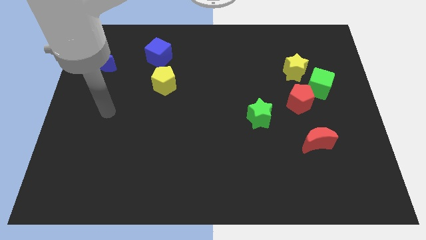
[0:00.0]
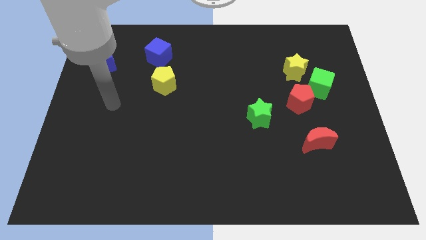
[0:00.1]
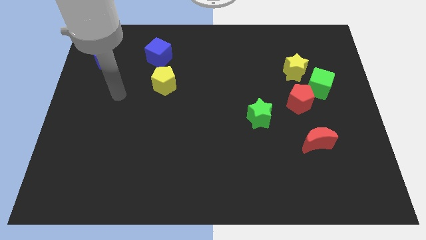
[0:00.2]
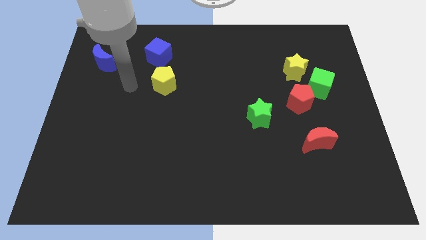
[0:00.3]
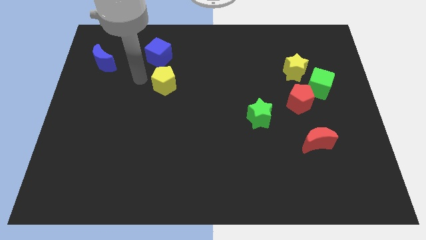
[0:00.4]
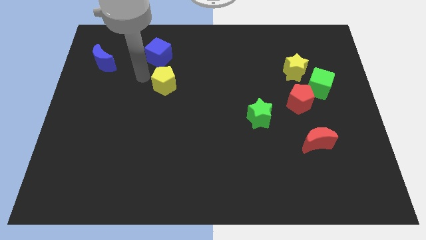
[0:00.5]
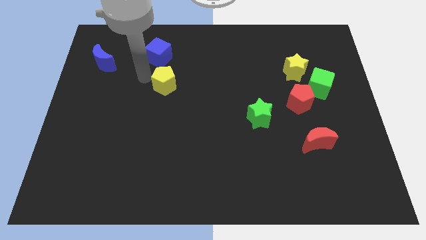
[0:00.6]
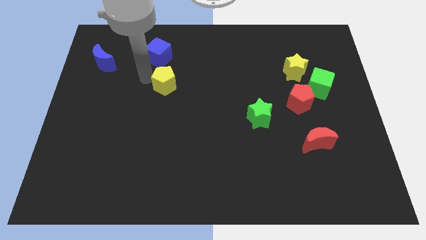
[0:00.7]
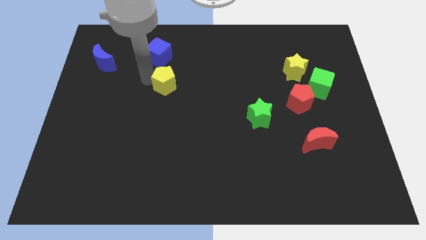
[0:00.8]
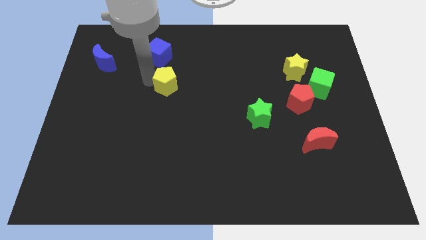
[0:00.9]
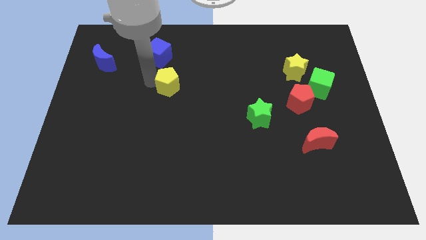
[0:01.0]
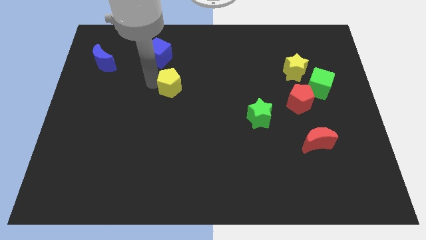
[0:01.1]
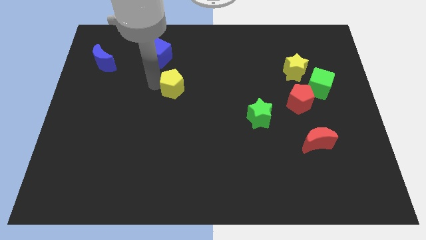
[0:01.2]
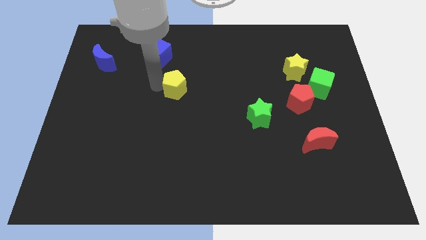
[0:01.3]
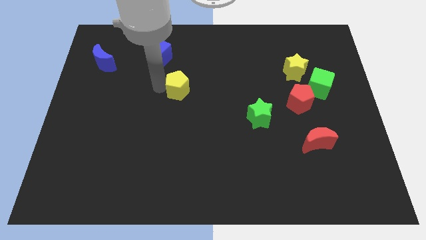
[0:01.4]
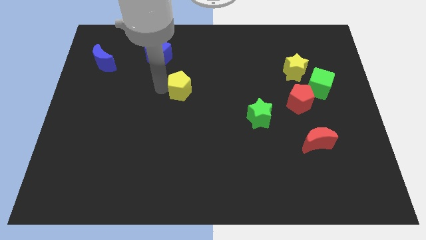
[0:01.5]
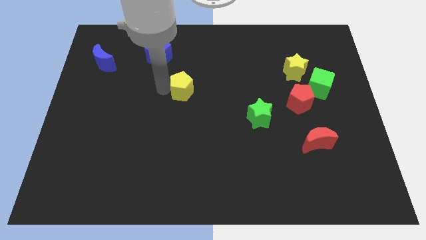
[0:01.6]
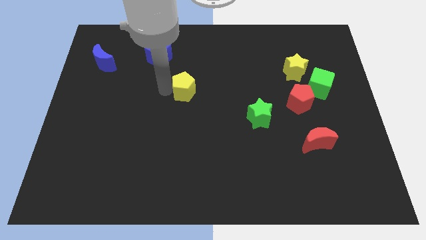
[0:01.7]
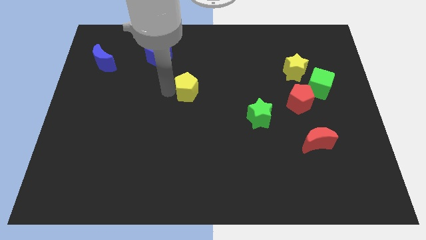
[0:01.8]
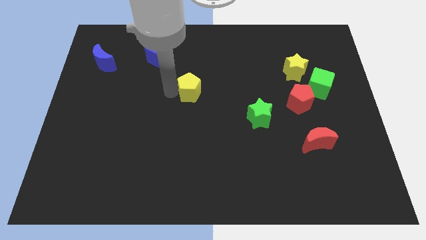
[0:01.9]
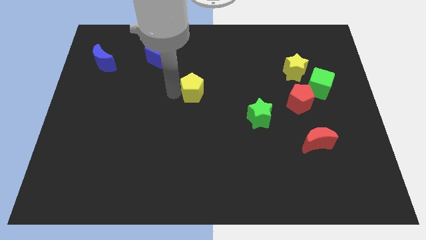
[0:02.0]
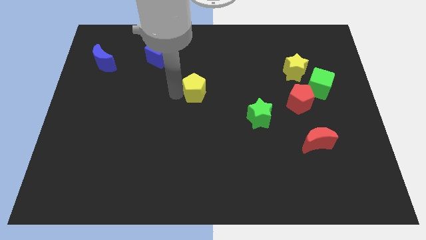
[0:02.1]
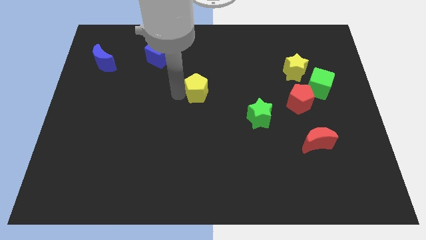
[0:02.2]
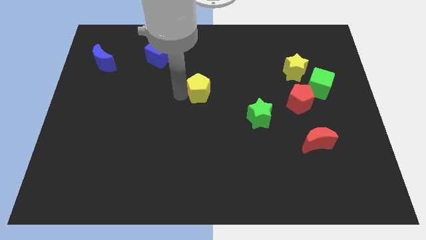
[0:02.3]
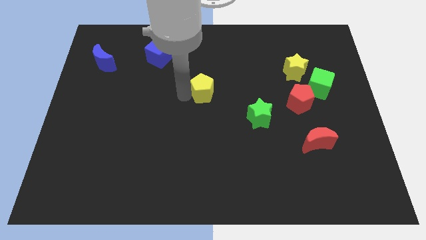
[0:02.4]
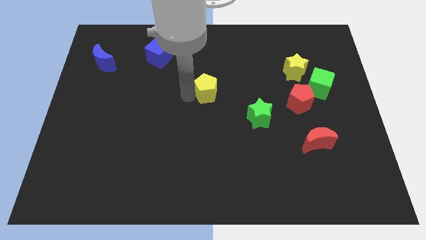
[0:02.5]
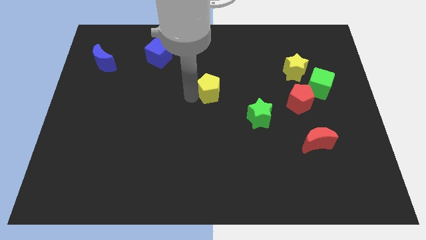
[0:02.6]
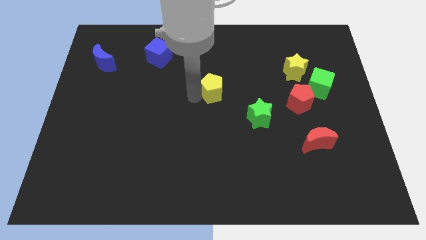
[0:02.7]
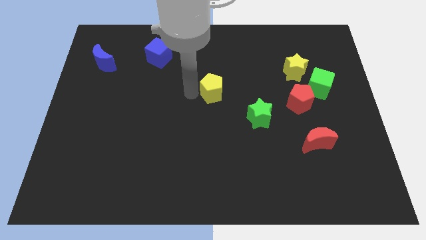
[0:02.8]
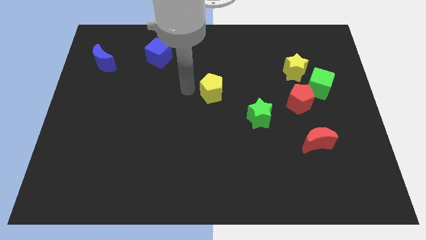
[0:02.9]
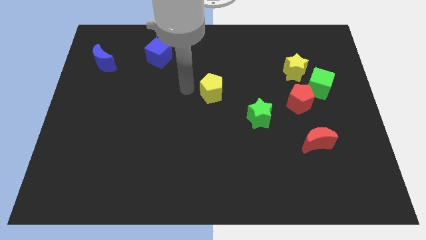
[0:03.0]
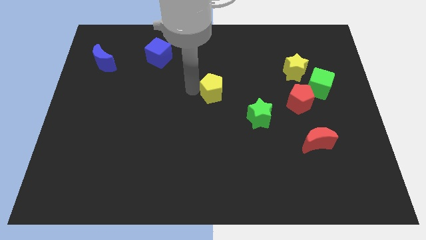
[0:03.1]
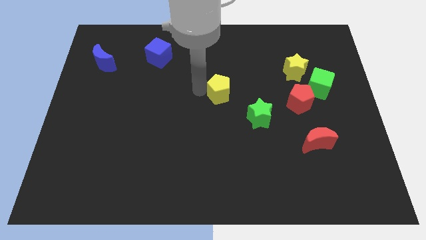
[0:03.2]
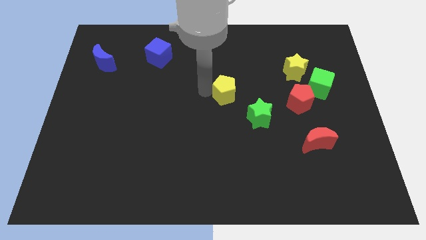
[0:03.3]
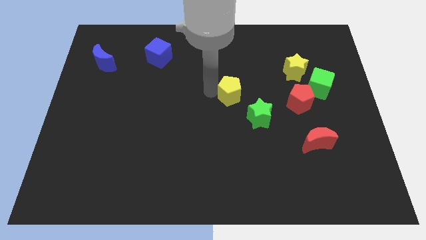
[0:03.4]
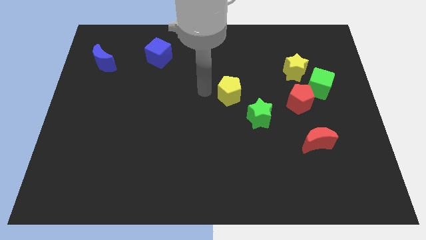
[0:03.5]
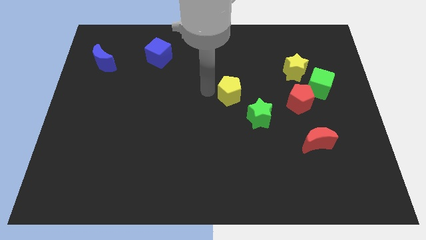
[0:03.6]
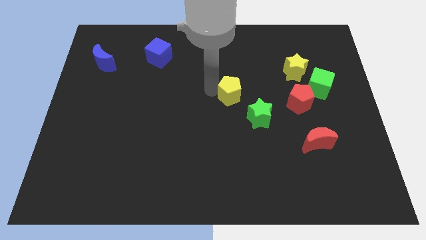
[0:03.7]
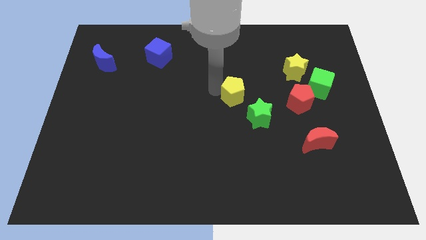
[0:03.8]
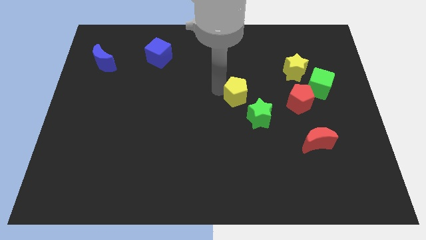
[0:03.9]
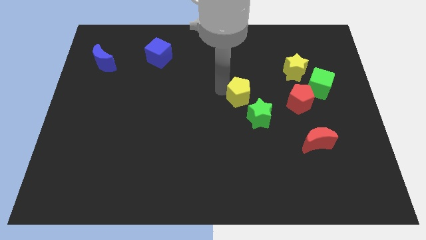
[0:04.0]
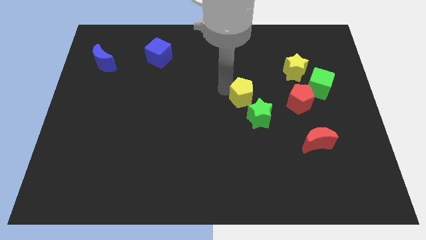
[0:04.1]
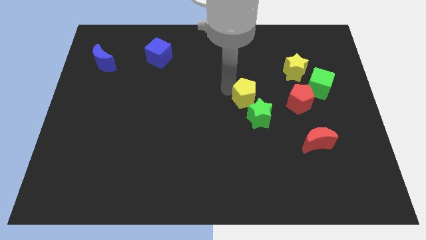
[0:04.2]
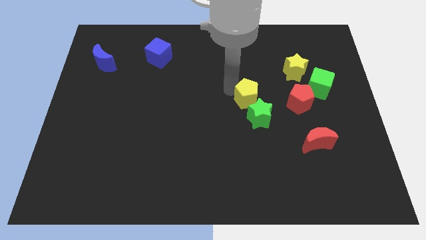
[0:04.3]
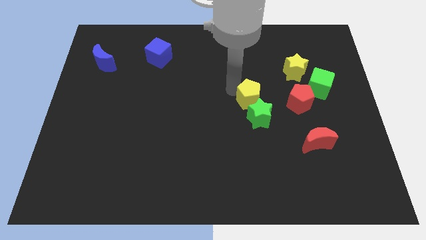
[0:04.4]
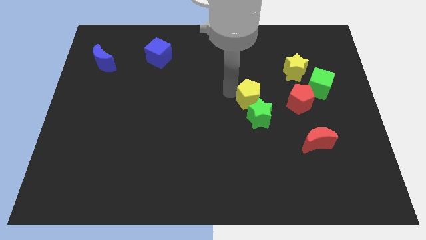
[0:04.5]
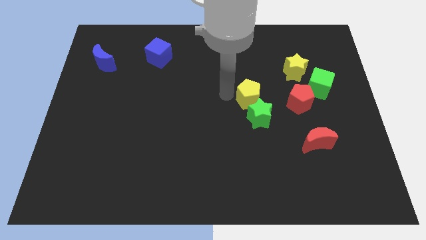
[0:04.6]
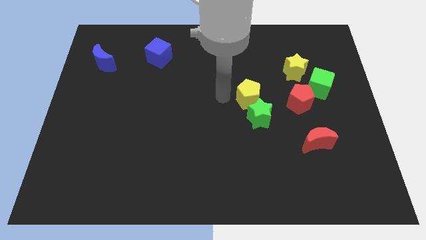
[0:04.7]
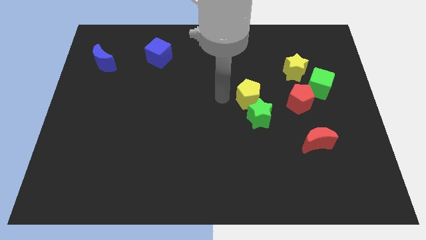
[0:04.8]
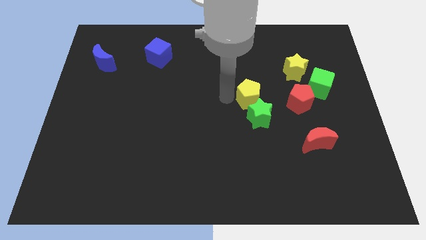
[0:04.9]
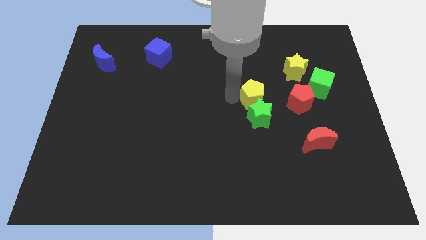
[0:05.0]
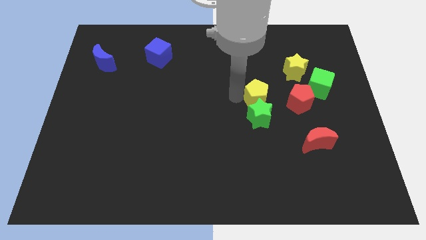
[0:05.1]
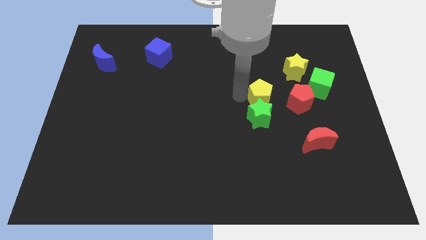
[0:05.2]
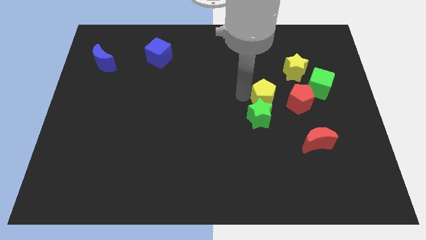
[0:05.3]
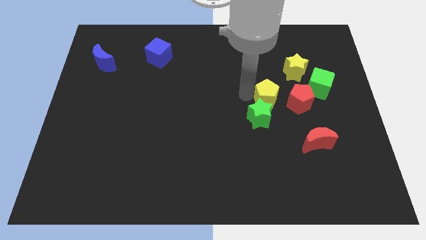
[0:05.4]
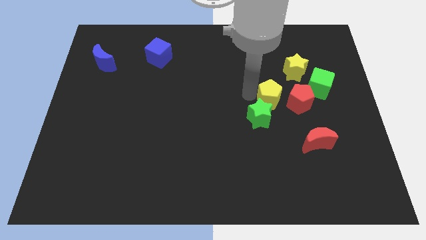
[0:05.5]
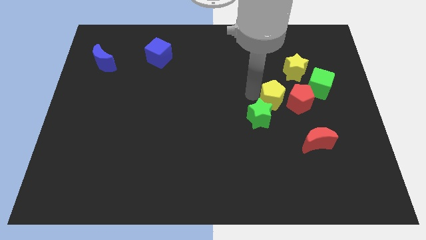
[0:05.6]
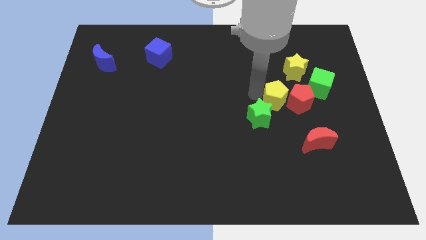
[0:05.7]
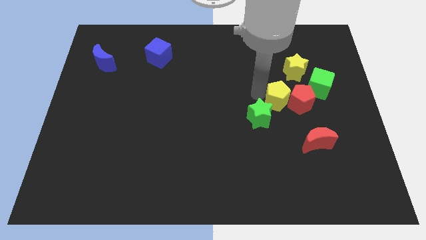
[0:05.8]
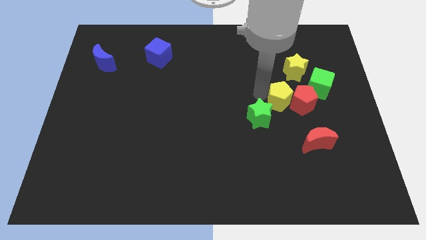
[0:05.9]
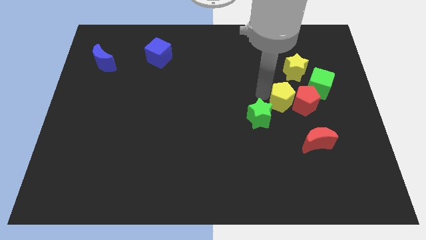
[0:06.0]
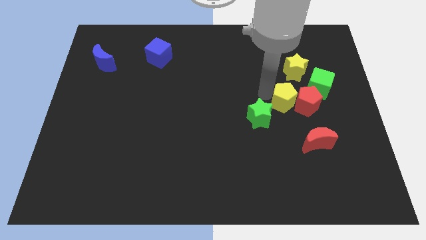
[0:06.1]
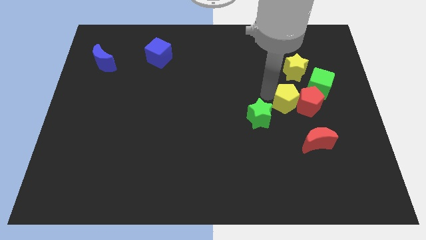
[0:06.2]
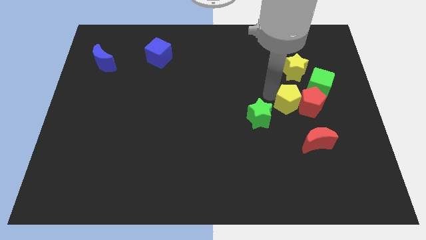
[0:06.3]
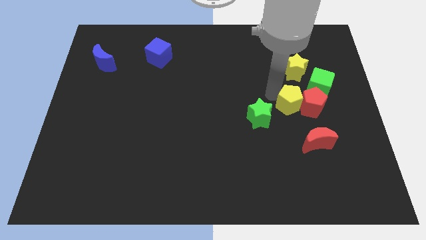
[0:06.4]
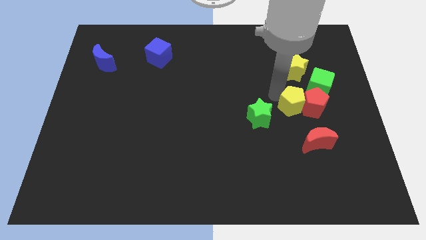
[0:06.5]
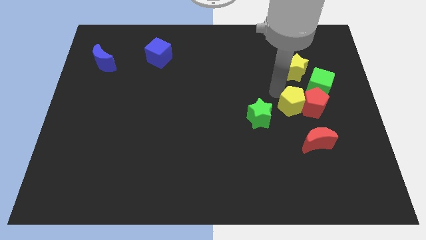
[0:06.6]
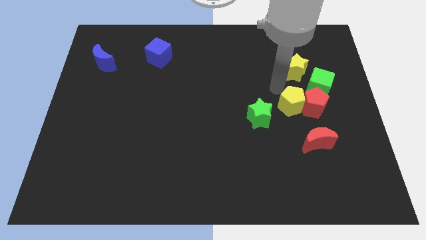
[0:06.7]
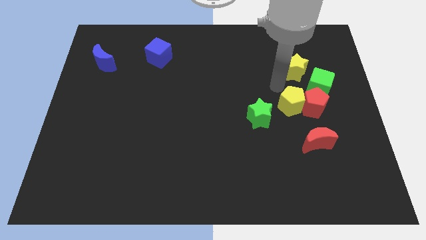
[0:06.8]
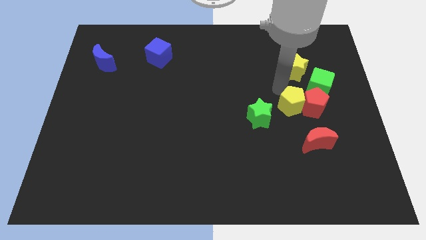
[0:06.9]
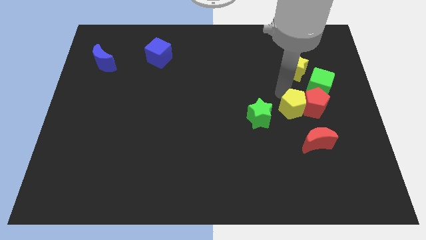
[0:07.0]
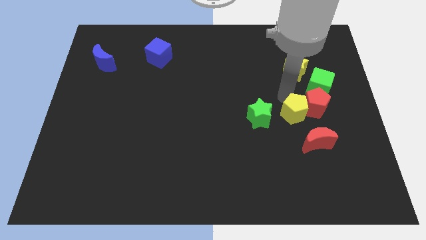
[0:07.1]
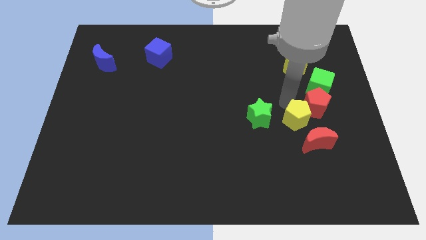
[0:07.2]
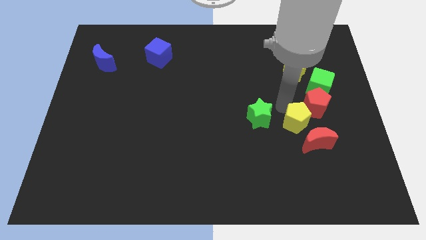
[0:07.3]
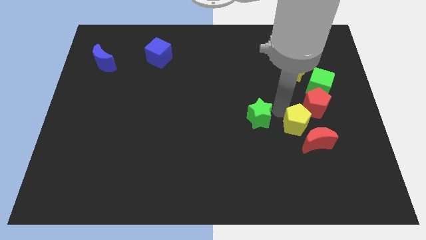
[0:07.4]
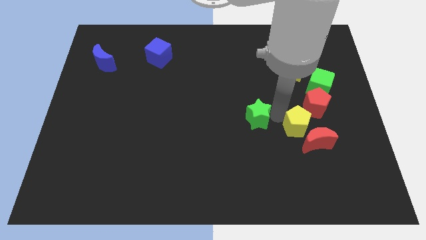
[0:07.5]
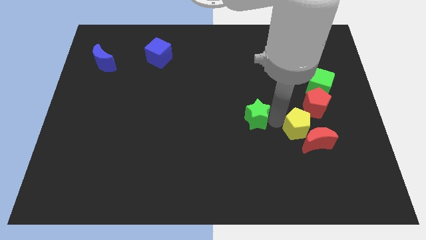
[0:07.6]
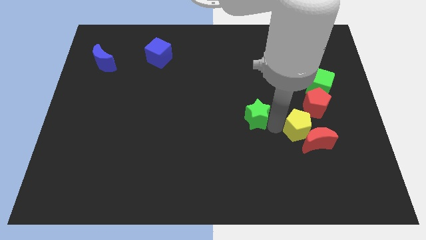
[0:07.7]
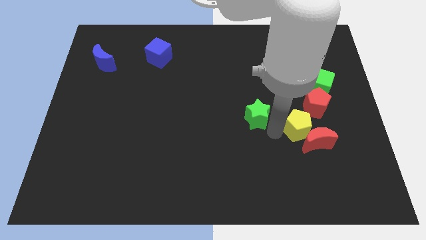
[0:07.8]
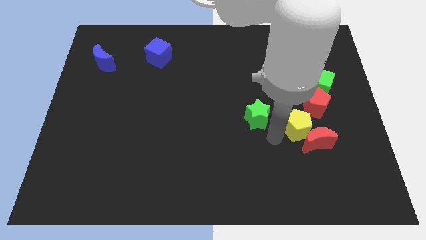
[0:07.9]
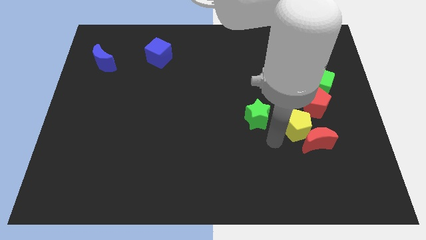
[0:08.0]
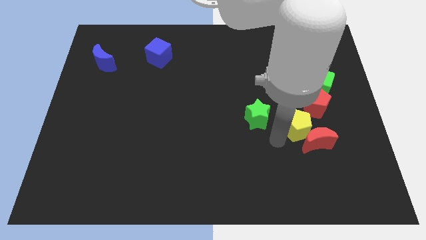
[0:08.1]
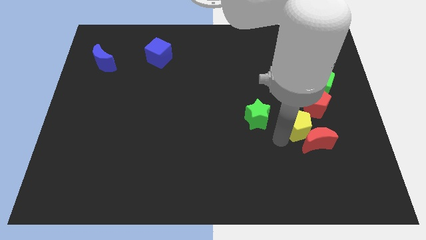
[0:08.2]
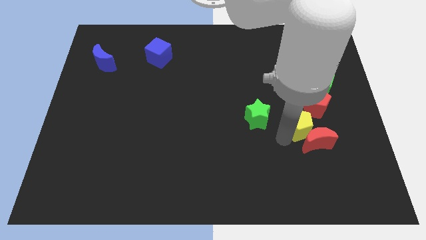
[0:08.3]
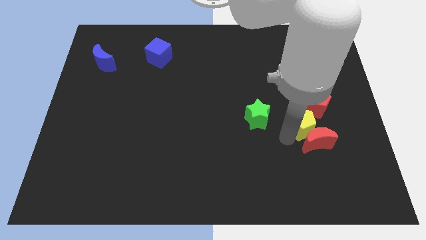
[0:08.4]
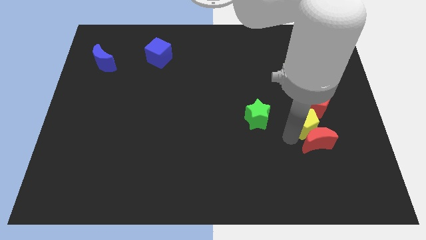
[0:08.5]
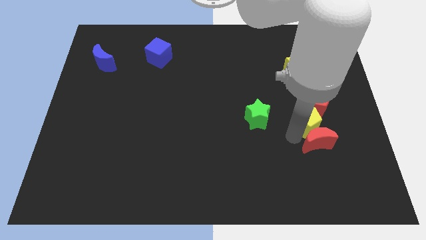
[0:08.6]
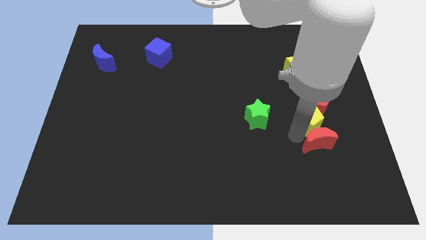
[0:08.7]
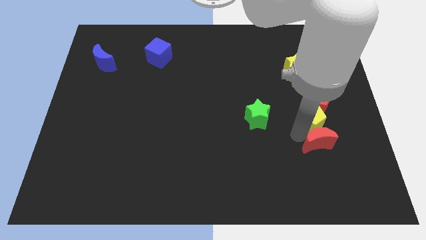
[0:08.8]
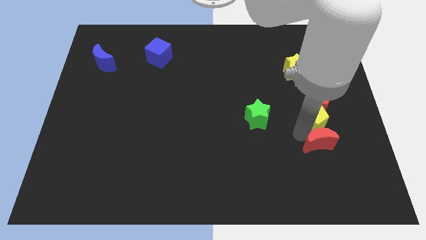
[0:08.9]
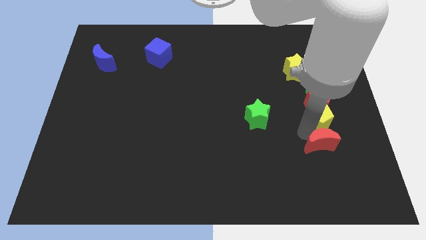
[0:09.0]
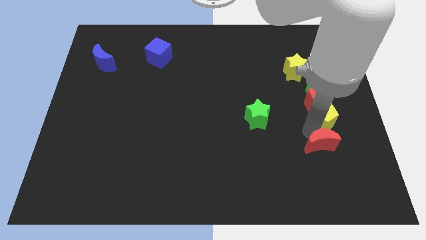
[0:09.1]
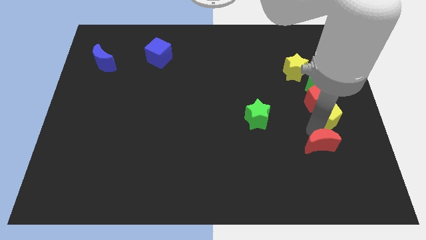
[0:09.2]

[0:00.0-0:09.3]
move the yellow pentagon to the right side
